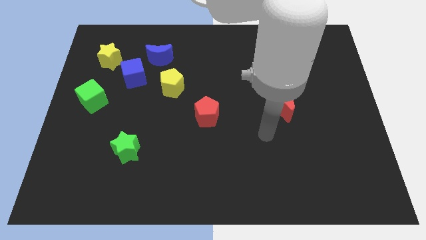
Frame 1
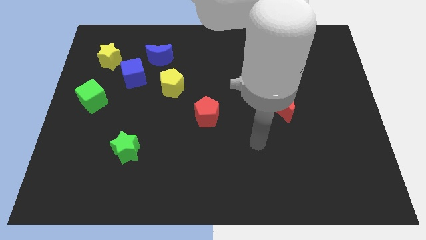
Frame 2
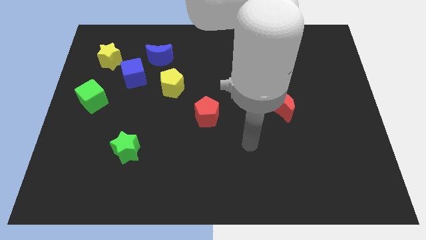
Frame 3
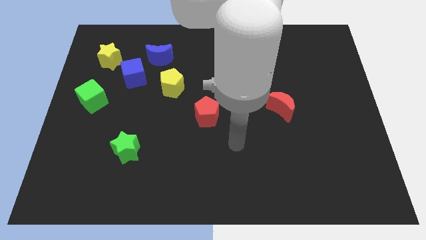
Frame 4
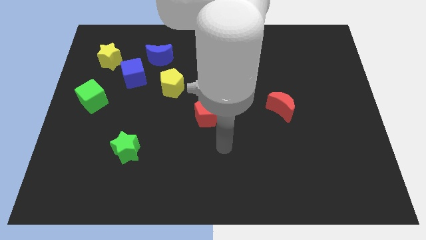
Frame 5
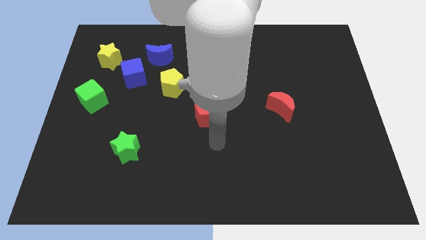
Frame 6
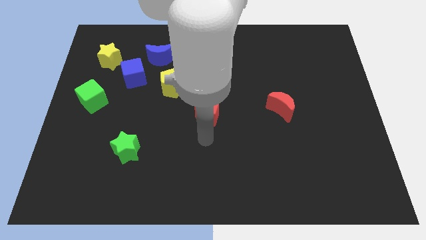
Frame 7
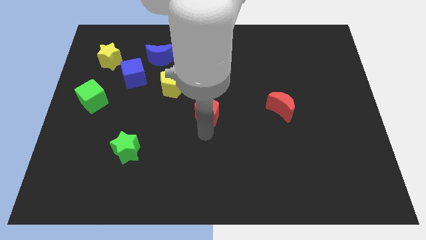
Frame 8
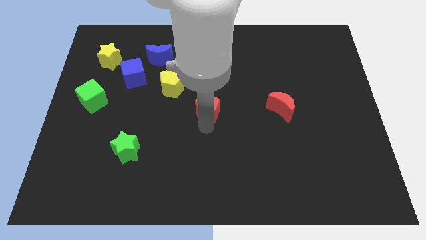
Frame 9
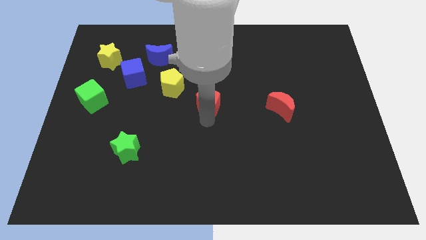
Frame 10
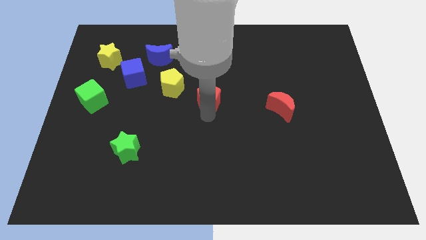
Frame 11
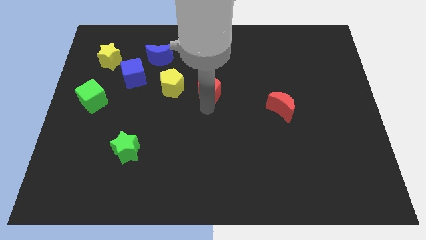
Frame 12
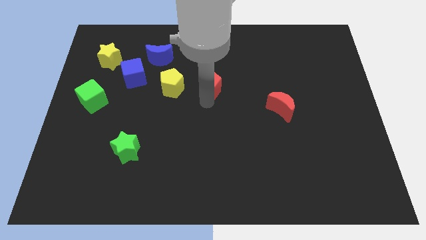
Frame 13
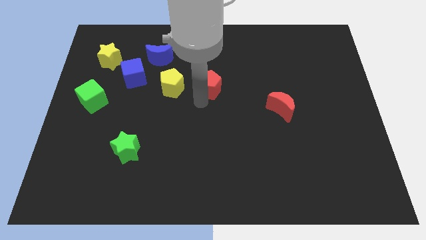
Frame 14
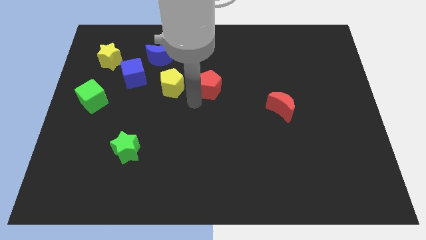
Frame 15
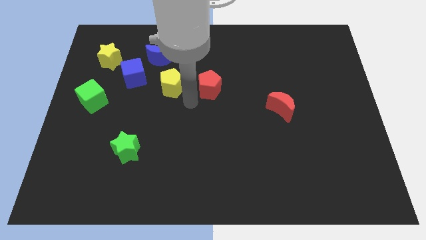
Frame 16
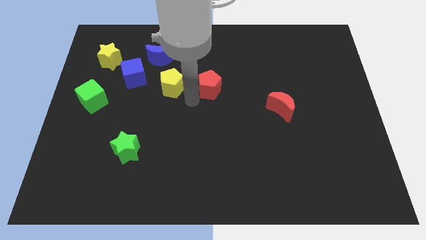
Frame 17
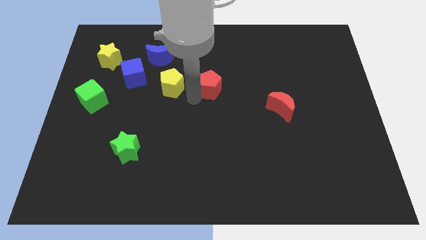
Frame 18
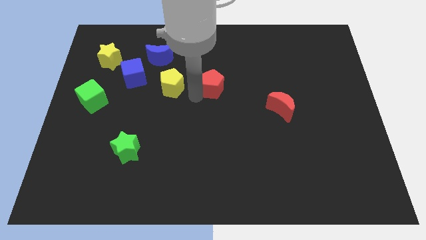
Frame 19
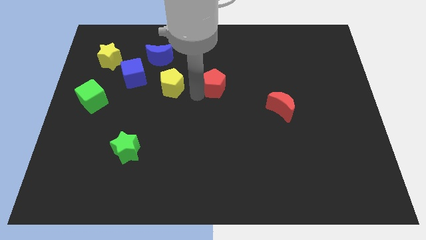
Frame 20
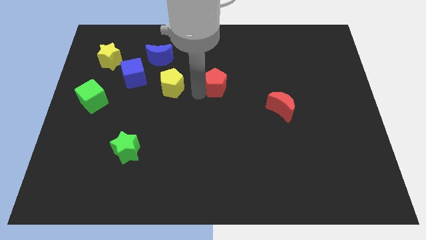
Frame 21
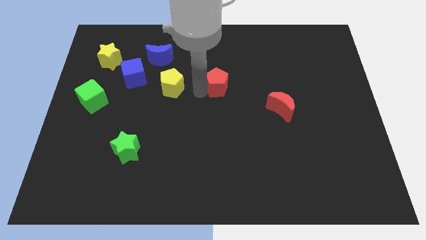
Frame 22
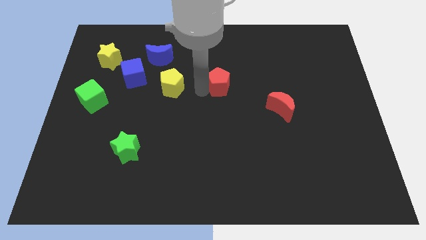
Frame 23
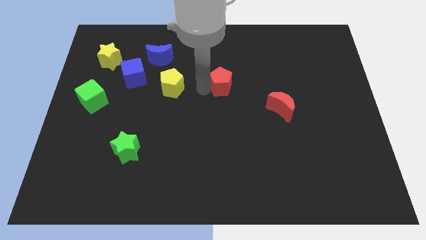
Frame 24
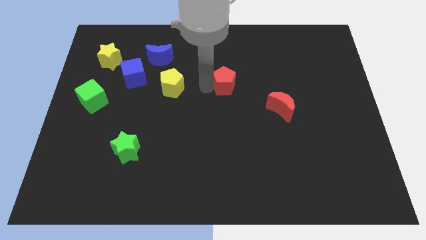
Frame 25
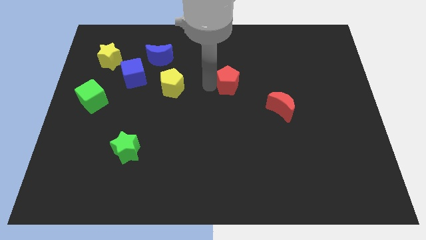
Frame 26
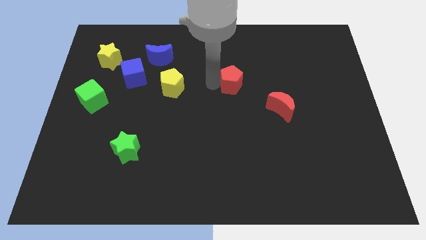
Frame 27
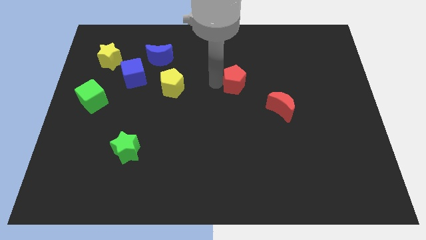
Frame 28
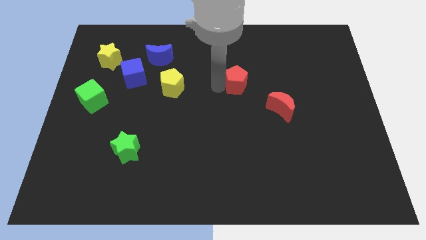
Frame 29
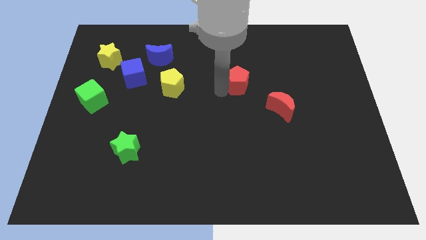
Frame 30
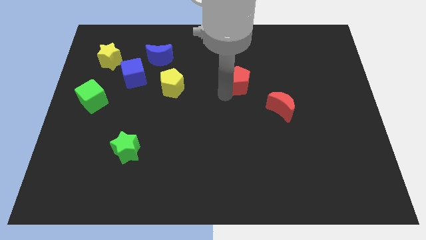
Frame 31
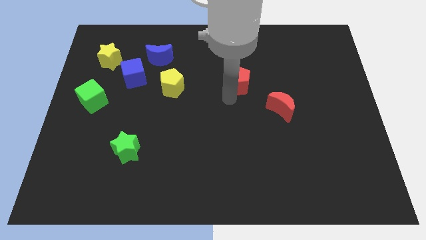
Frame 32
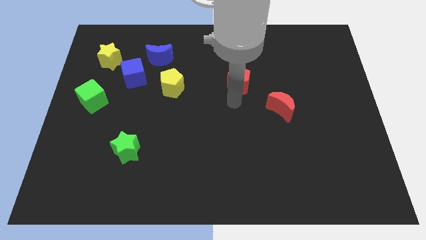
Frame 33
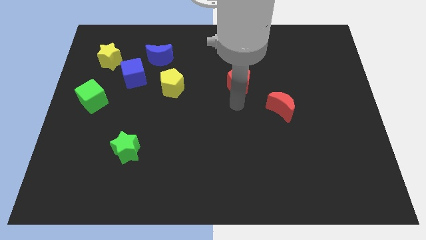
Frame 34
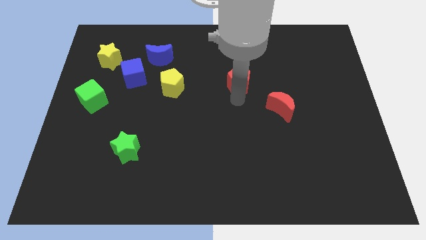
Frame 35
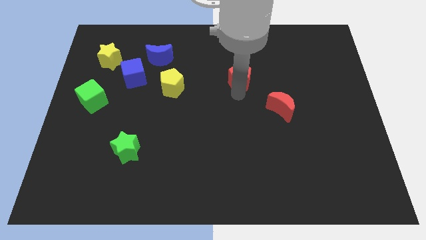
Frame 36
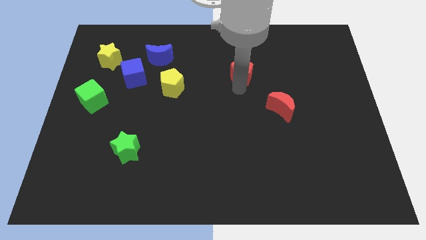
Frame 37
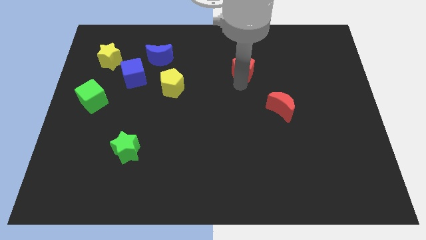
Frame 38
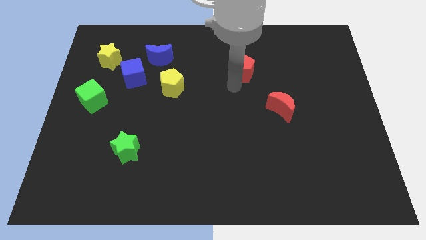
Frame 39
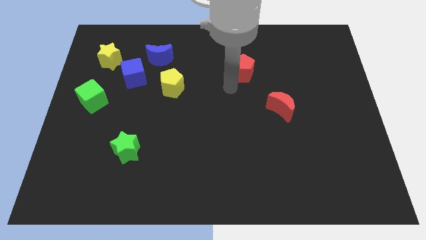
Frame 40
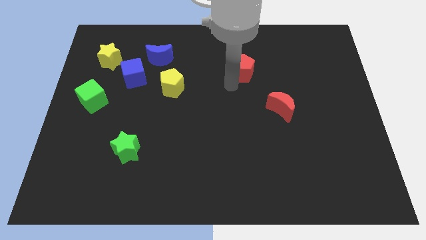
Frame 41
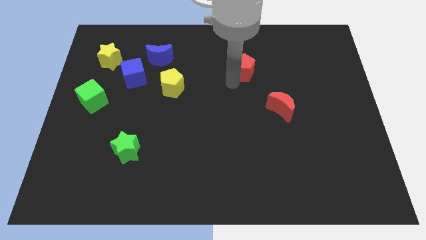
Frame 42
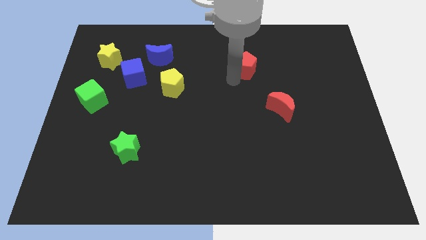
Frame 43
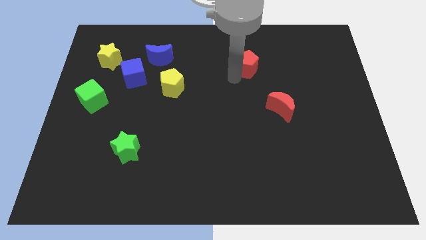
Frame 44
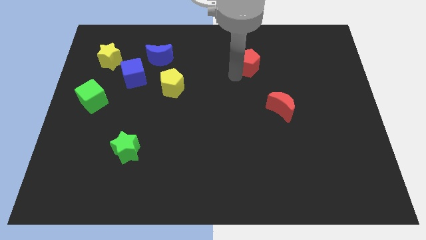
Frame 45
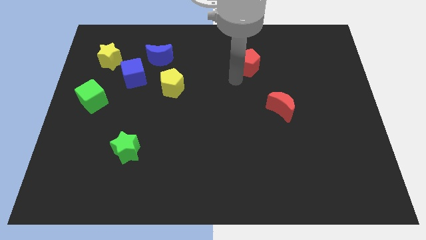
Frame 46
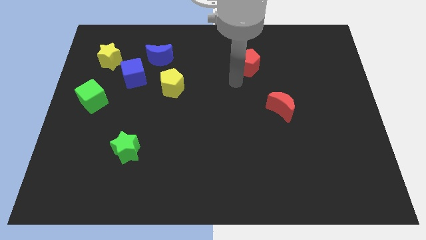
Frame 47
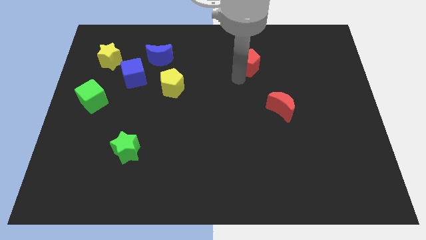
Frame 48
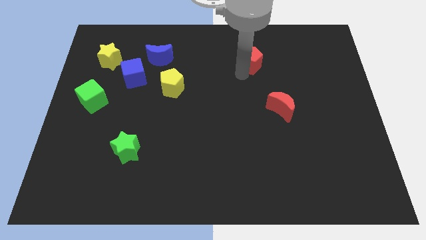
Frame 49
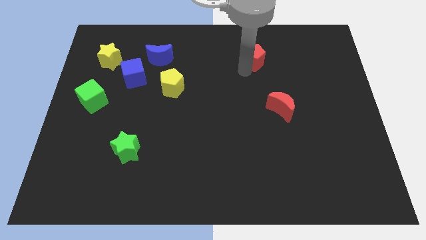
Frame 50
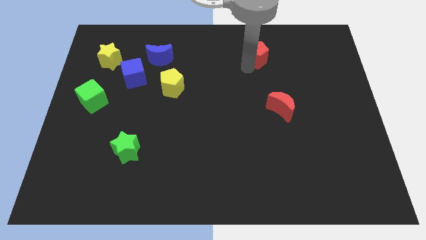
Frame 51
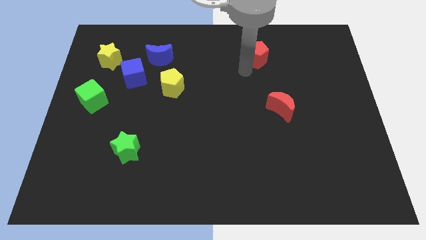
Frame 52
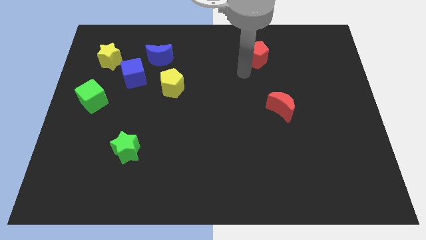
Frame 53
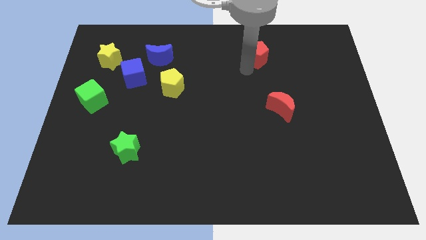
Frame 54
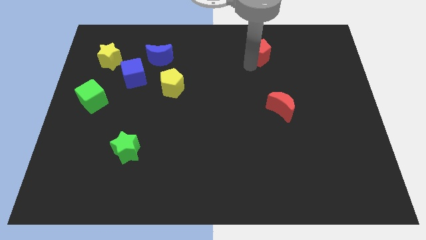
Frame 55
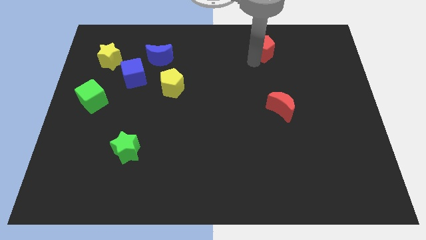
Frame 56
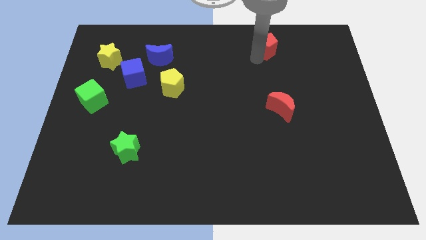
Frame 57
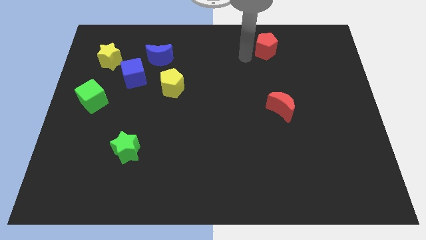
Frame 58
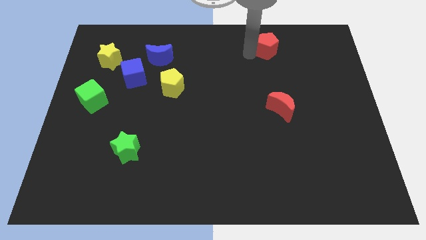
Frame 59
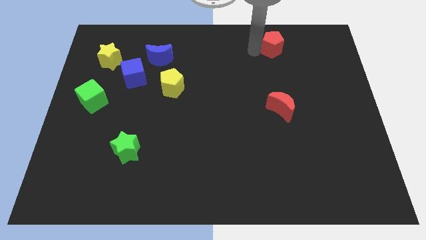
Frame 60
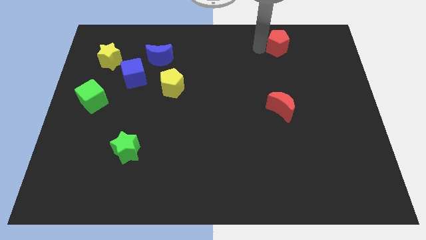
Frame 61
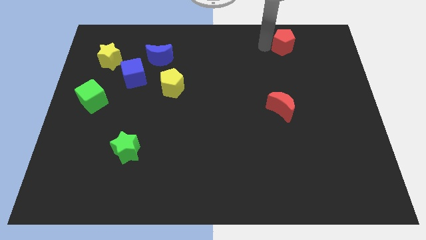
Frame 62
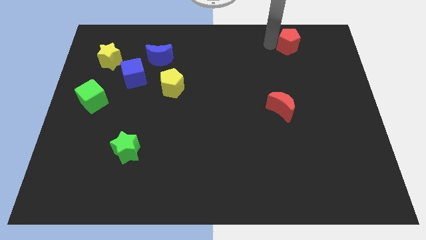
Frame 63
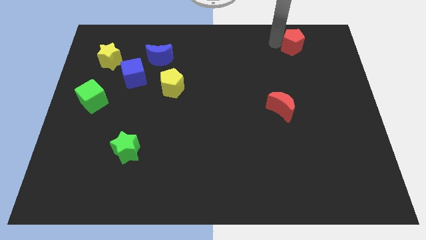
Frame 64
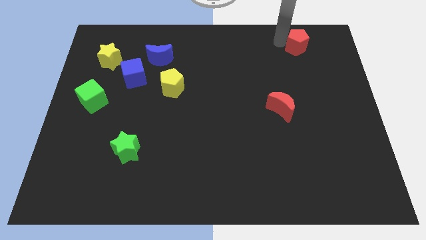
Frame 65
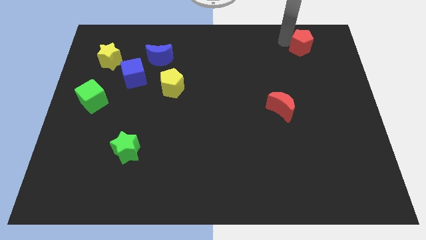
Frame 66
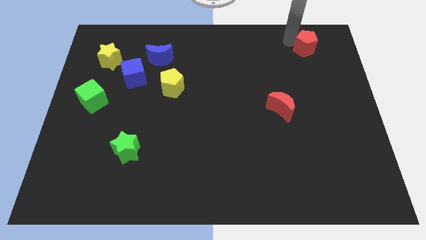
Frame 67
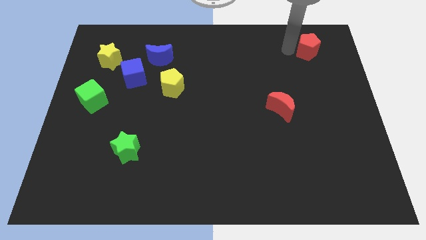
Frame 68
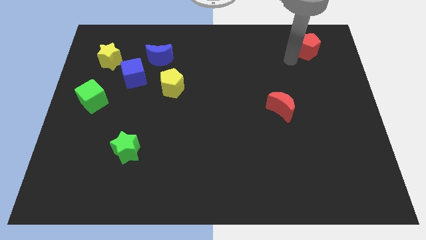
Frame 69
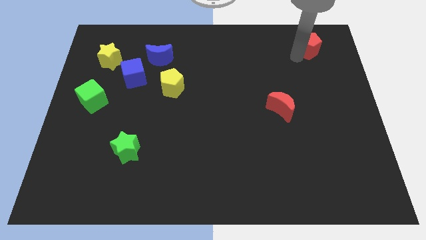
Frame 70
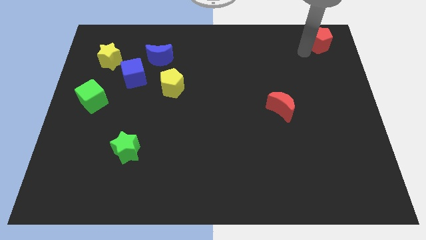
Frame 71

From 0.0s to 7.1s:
move the red pentagon to the top right
